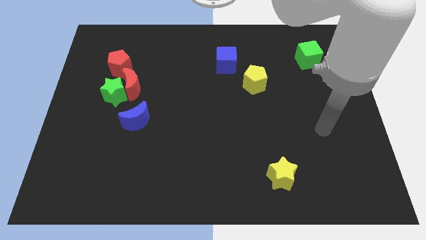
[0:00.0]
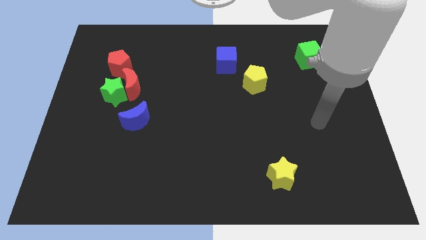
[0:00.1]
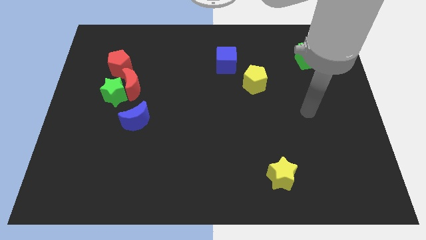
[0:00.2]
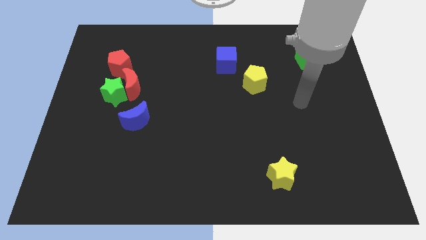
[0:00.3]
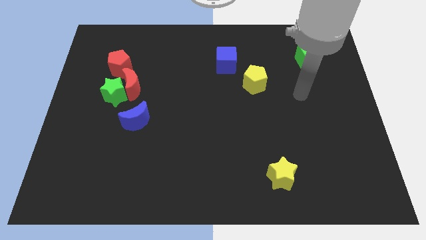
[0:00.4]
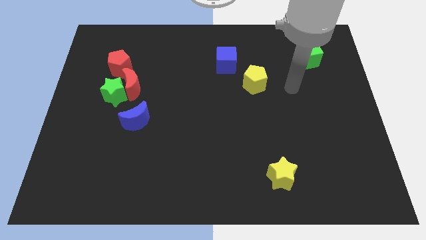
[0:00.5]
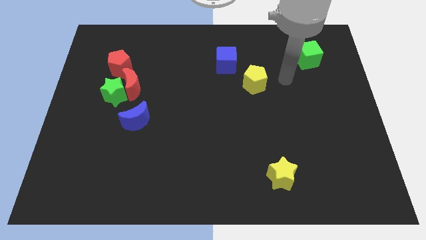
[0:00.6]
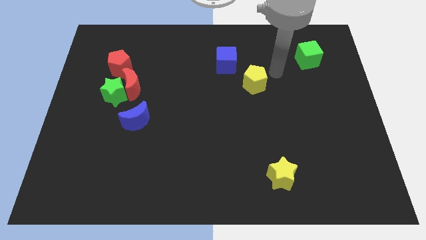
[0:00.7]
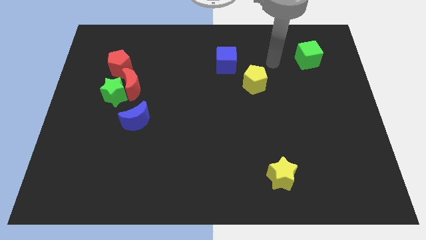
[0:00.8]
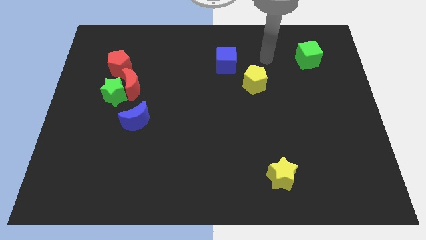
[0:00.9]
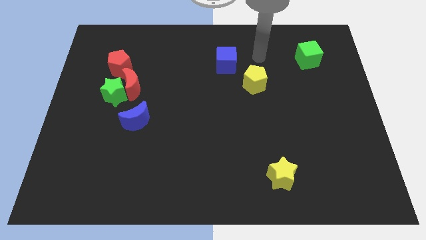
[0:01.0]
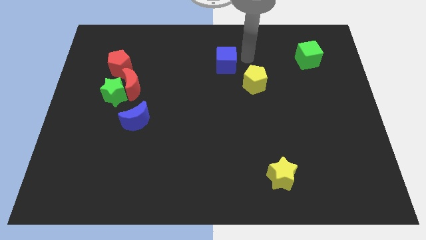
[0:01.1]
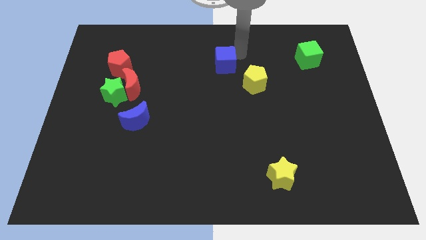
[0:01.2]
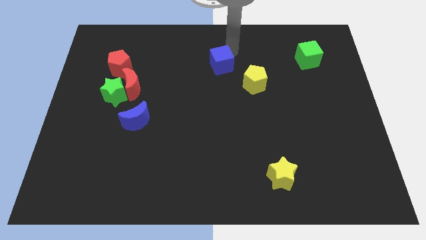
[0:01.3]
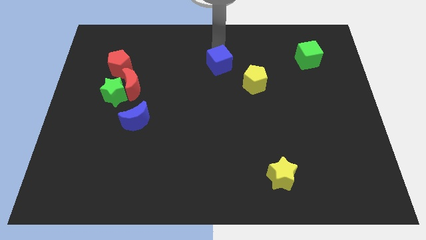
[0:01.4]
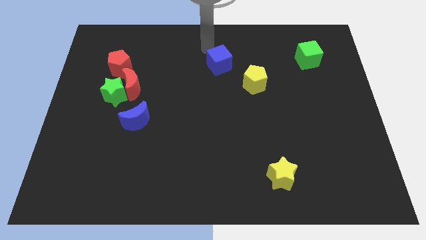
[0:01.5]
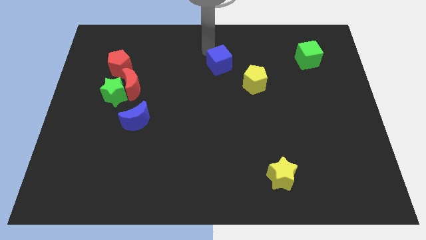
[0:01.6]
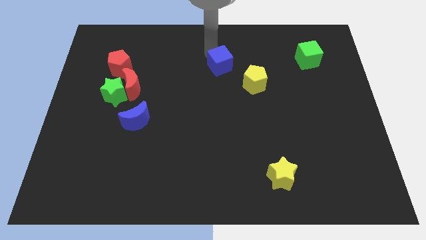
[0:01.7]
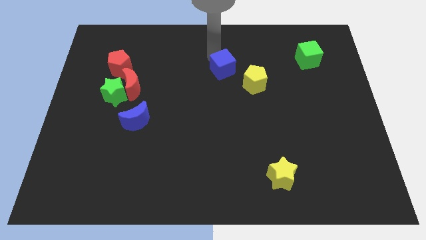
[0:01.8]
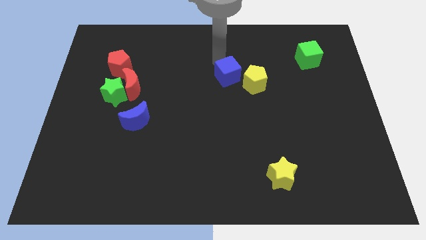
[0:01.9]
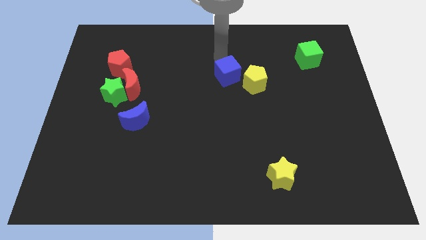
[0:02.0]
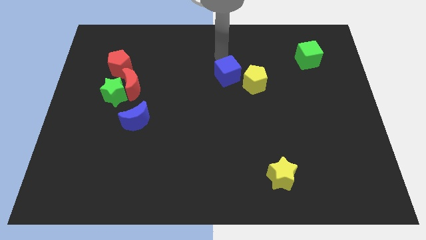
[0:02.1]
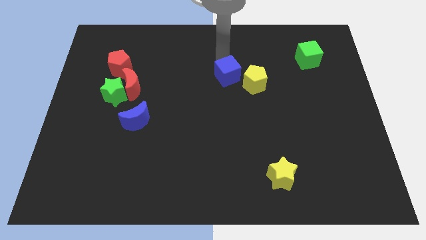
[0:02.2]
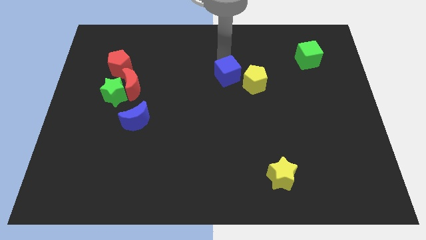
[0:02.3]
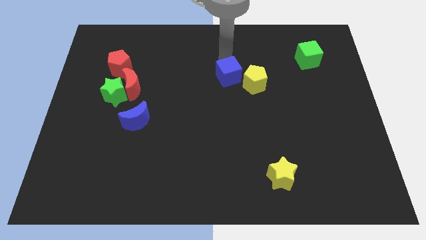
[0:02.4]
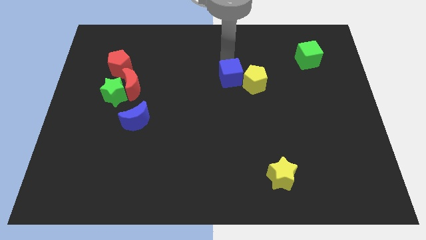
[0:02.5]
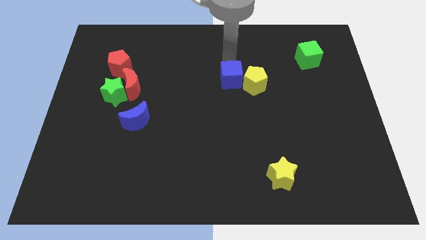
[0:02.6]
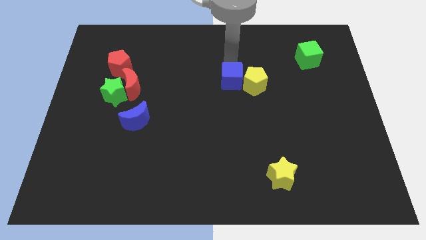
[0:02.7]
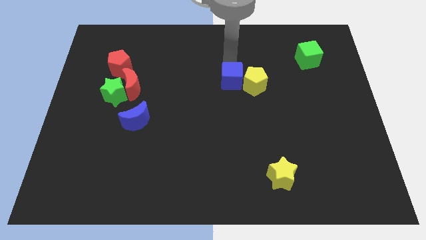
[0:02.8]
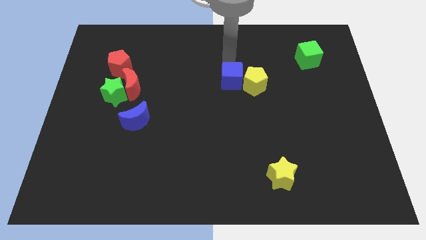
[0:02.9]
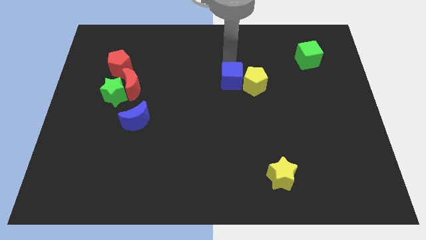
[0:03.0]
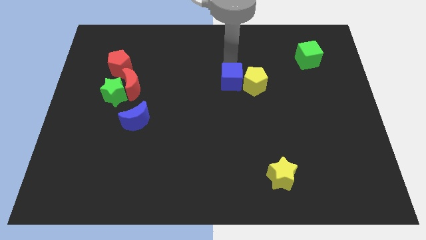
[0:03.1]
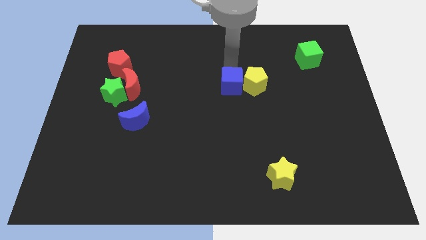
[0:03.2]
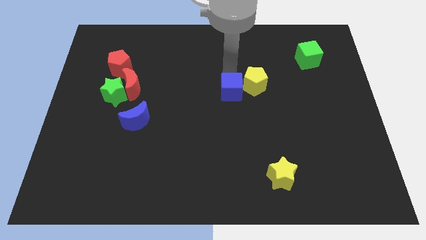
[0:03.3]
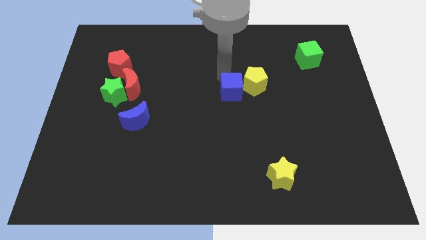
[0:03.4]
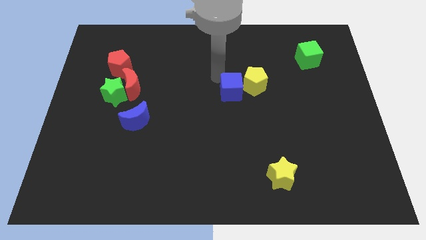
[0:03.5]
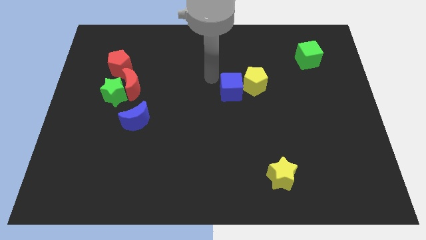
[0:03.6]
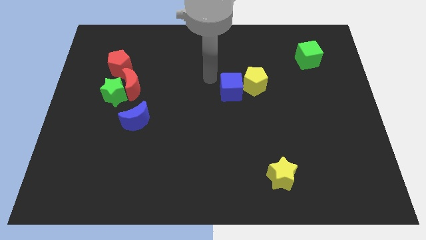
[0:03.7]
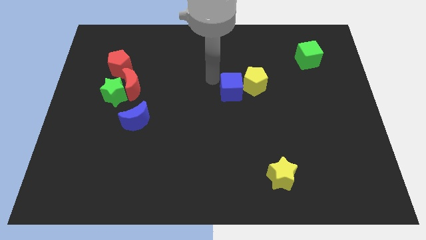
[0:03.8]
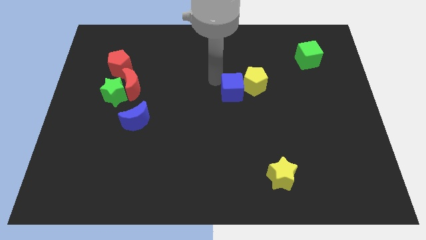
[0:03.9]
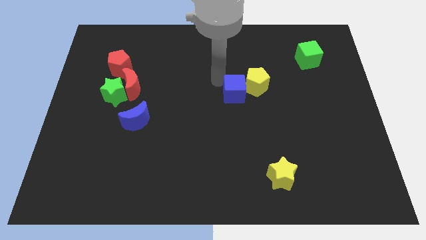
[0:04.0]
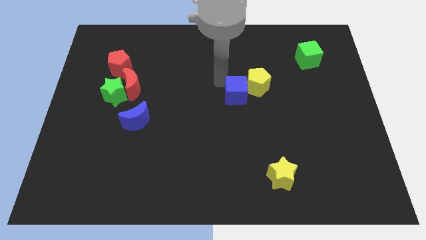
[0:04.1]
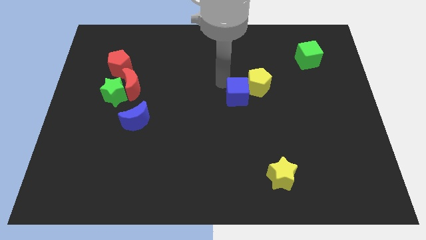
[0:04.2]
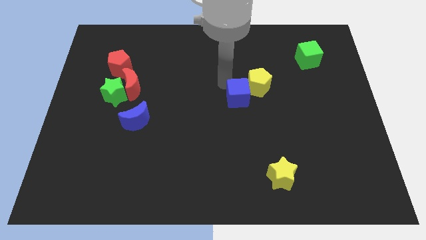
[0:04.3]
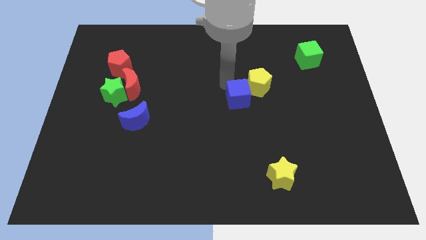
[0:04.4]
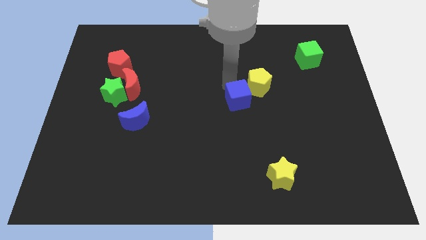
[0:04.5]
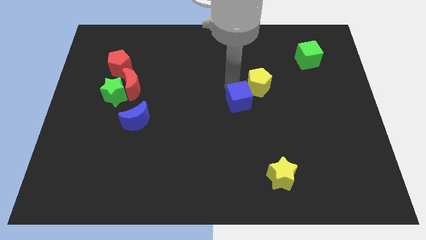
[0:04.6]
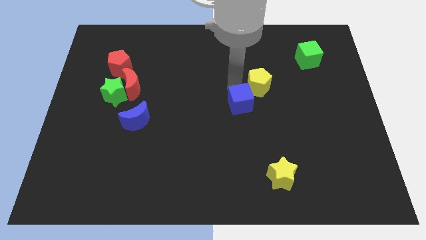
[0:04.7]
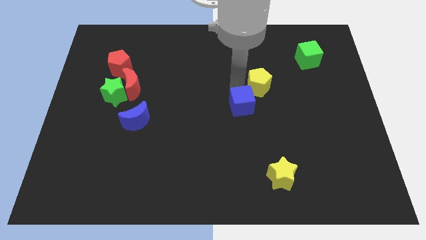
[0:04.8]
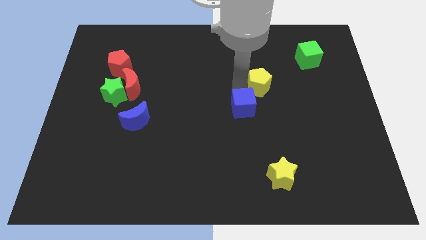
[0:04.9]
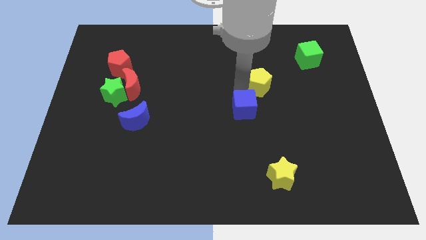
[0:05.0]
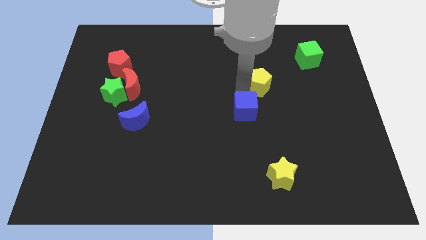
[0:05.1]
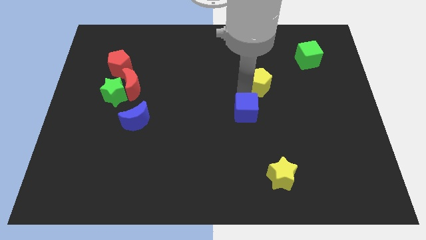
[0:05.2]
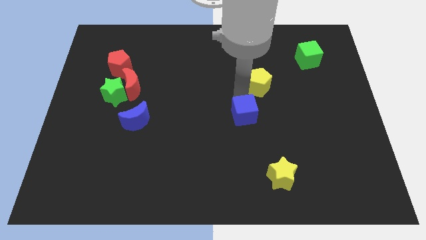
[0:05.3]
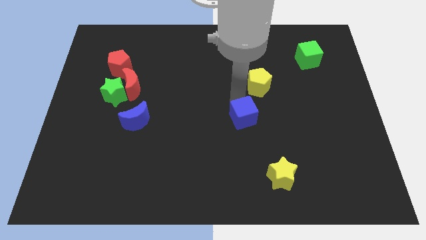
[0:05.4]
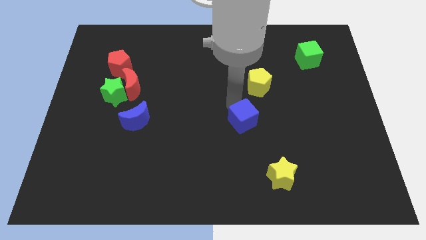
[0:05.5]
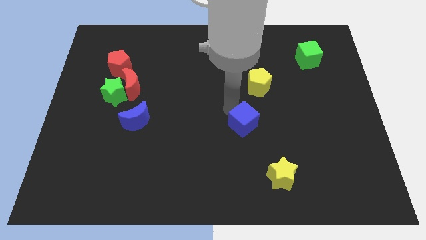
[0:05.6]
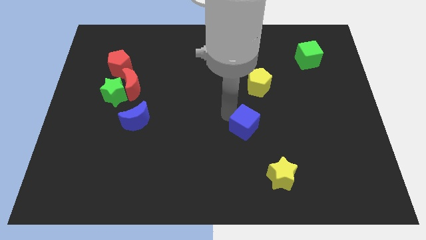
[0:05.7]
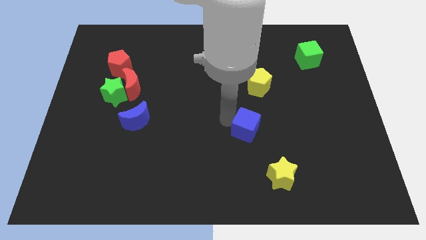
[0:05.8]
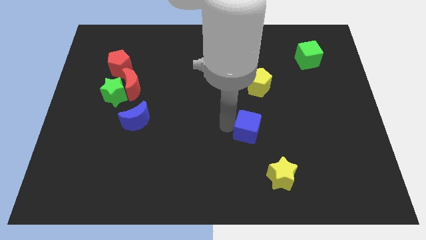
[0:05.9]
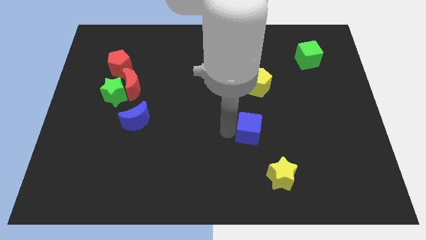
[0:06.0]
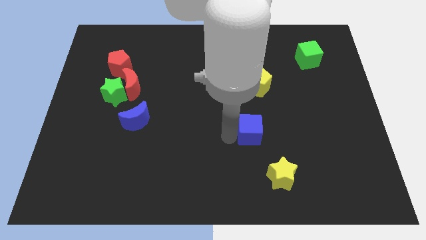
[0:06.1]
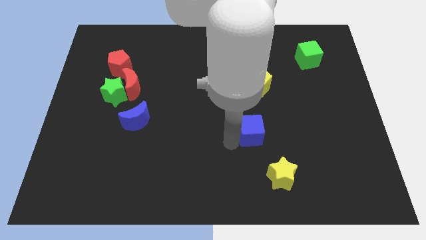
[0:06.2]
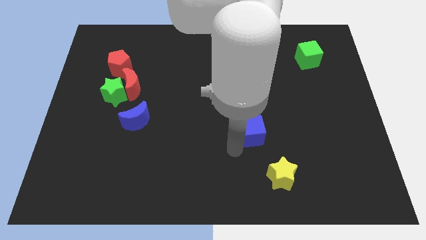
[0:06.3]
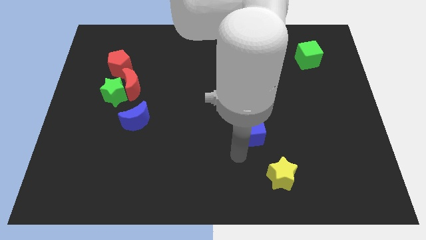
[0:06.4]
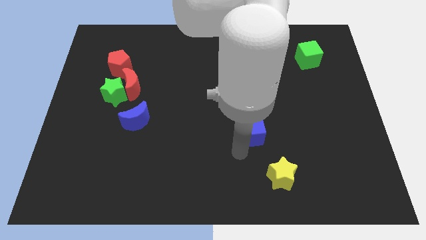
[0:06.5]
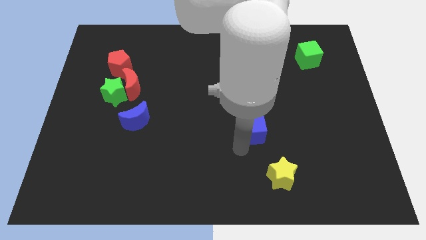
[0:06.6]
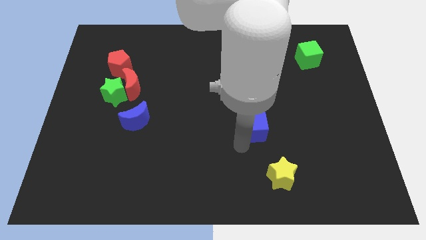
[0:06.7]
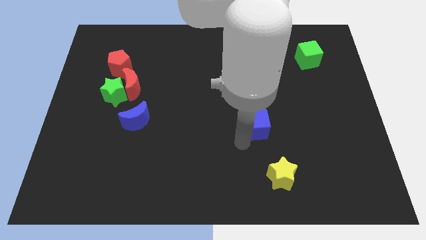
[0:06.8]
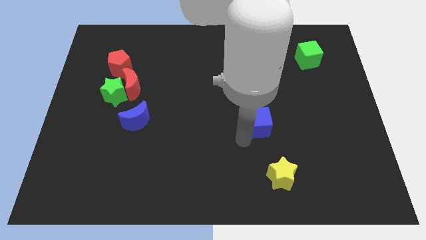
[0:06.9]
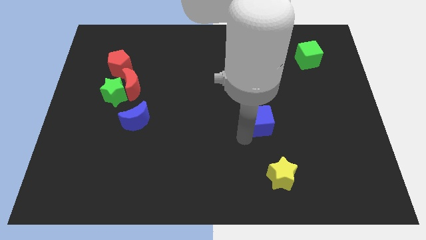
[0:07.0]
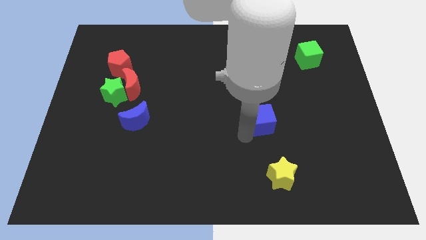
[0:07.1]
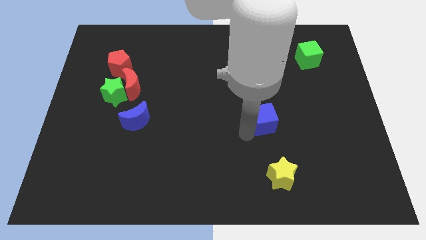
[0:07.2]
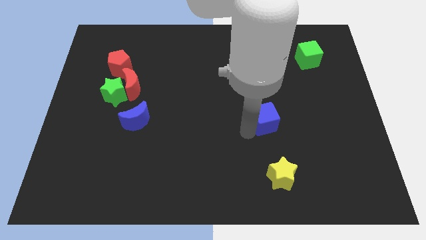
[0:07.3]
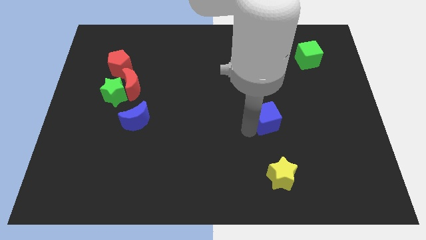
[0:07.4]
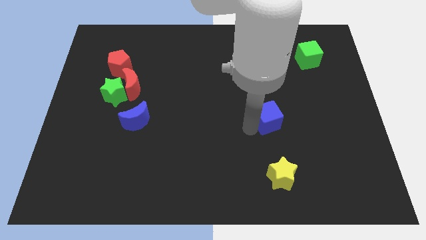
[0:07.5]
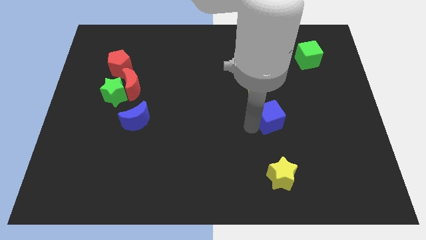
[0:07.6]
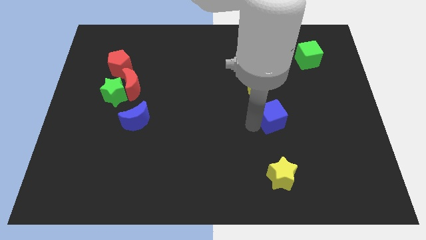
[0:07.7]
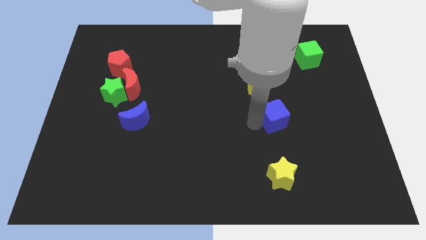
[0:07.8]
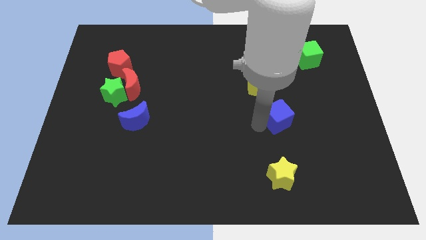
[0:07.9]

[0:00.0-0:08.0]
push the blue cube downwards and right diagonally
